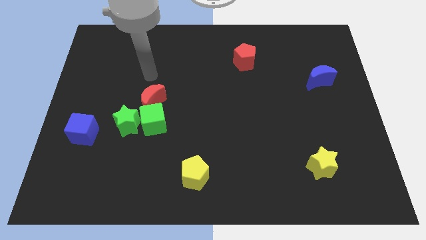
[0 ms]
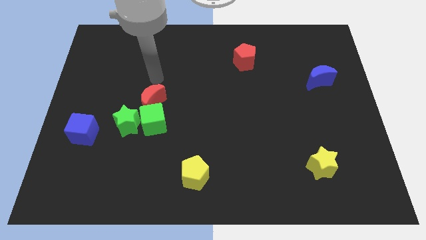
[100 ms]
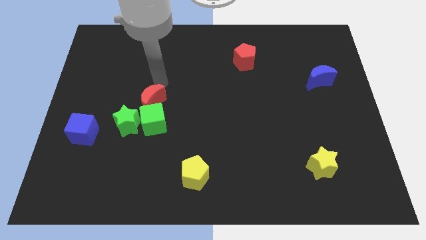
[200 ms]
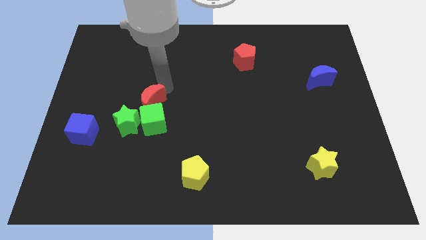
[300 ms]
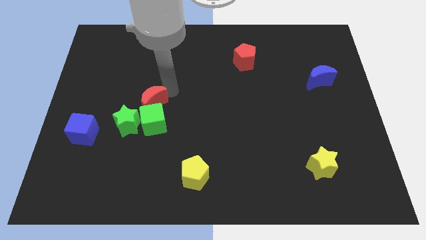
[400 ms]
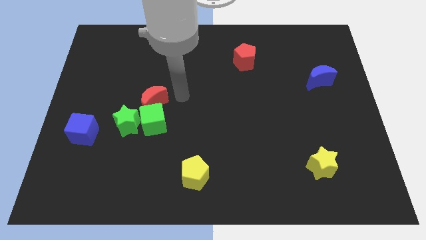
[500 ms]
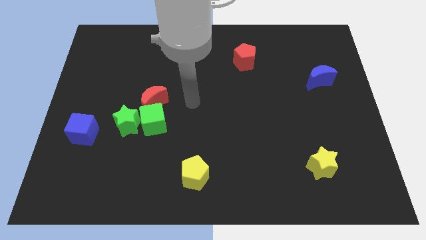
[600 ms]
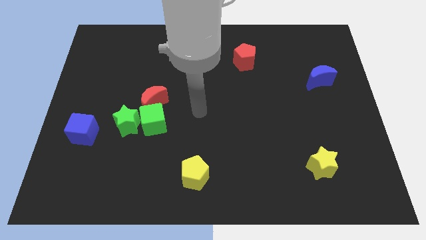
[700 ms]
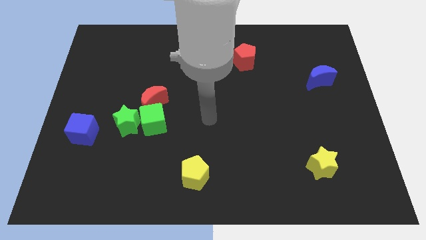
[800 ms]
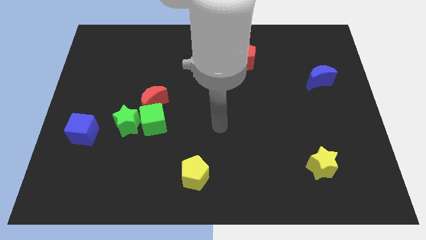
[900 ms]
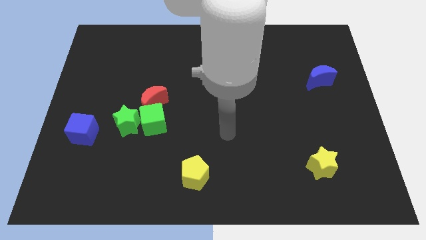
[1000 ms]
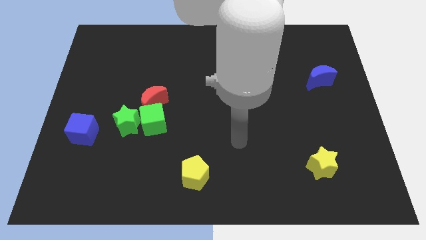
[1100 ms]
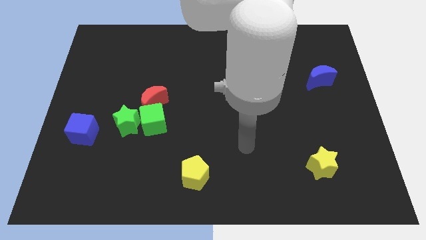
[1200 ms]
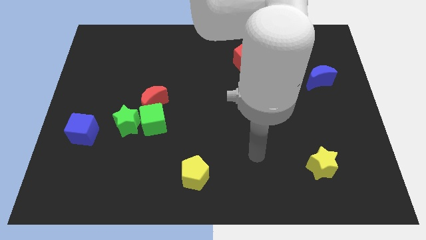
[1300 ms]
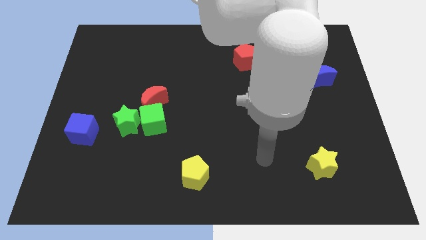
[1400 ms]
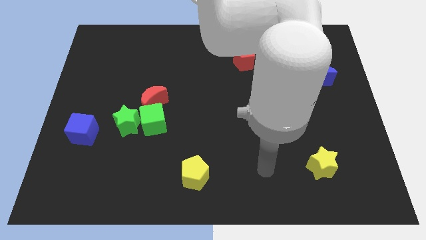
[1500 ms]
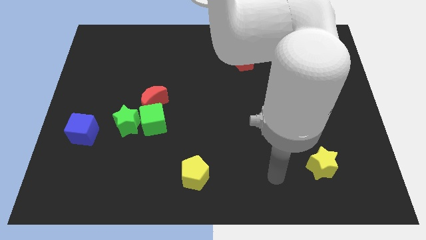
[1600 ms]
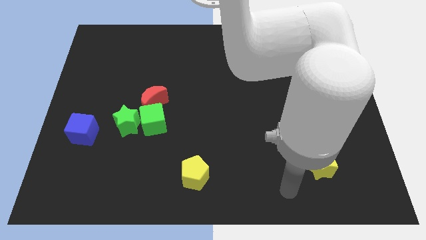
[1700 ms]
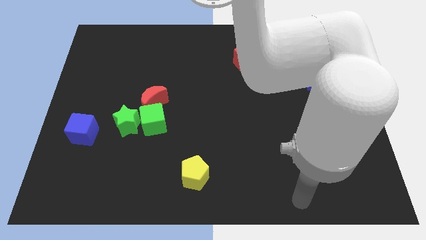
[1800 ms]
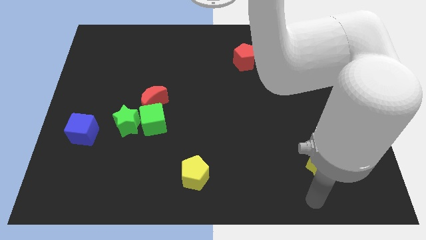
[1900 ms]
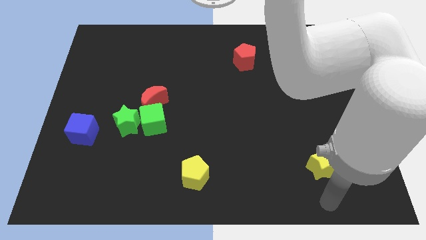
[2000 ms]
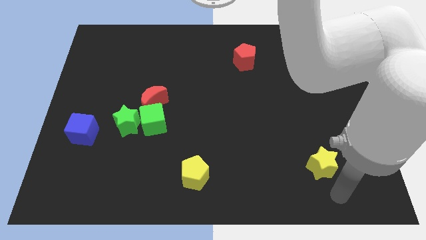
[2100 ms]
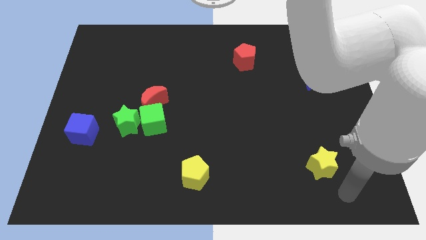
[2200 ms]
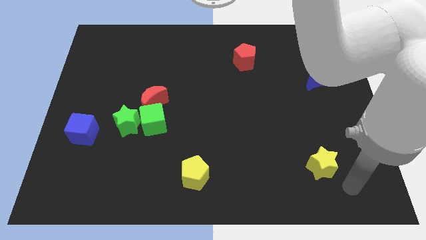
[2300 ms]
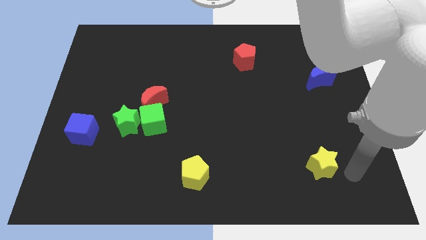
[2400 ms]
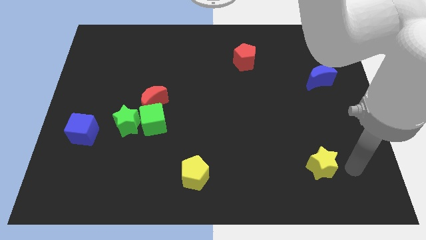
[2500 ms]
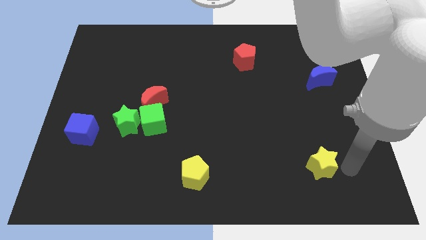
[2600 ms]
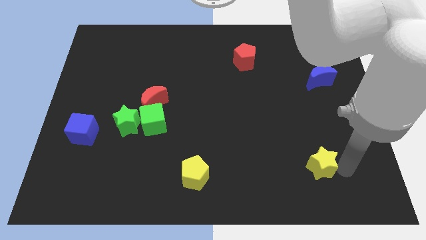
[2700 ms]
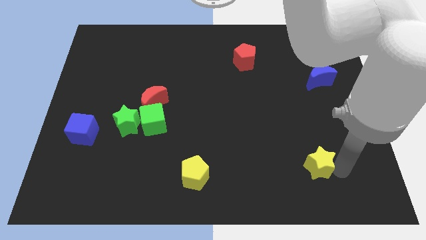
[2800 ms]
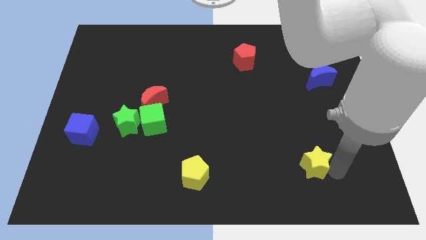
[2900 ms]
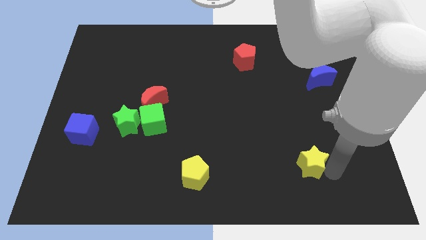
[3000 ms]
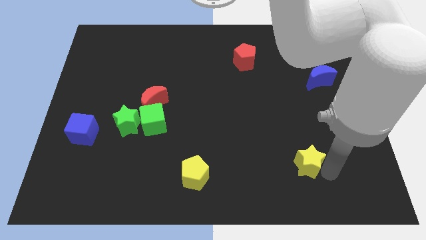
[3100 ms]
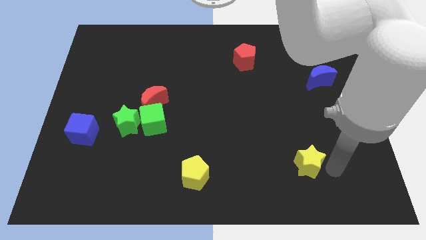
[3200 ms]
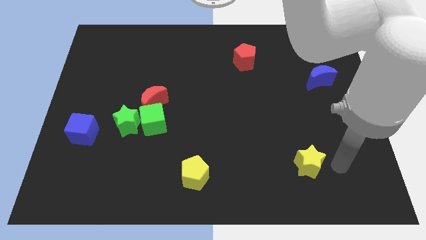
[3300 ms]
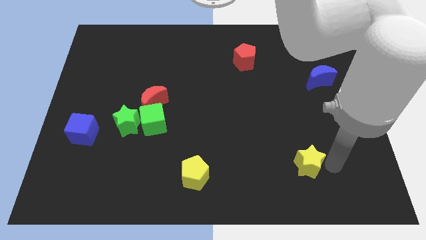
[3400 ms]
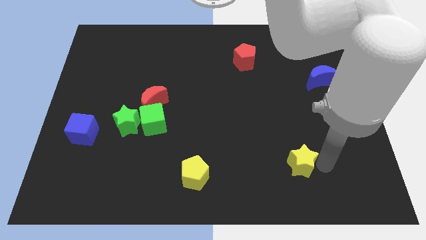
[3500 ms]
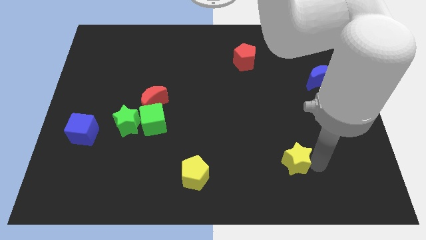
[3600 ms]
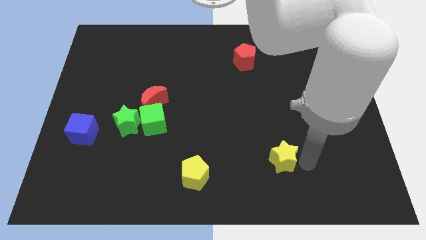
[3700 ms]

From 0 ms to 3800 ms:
move the yellow star a bit left

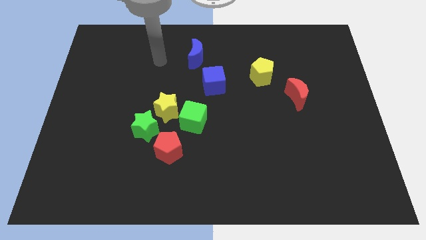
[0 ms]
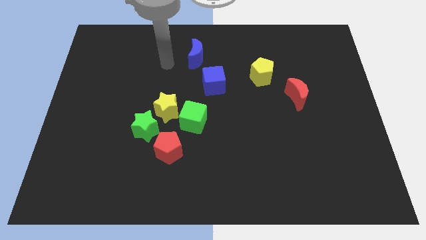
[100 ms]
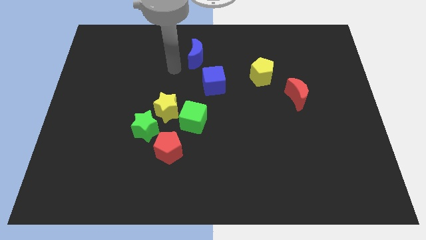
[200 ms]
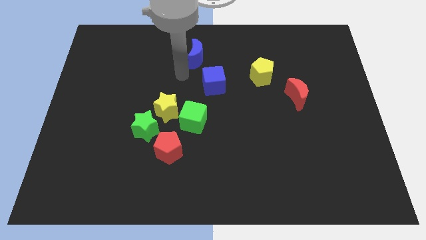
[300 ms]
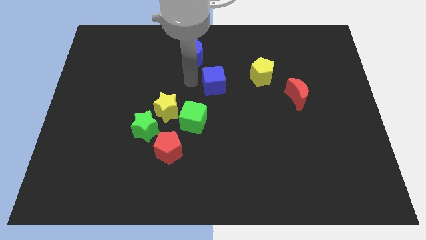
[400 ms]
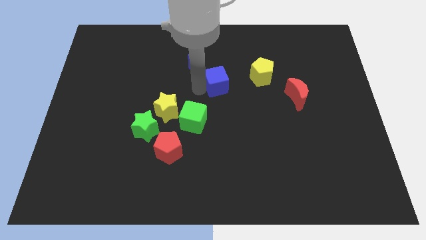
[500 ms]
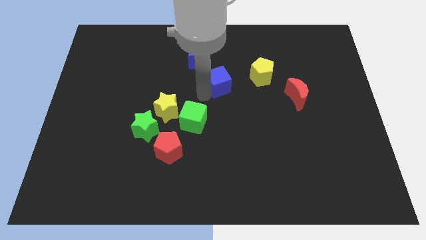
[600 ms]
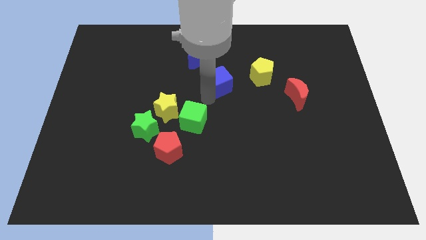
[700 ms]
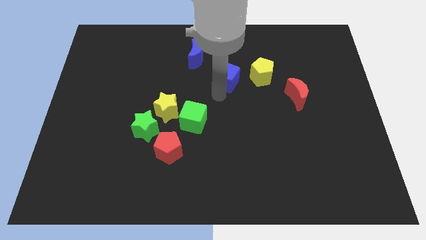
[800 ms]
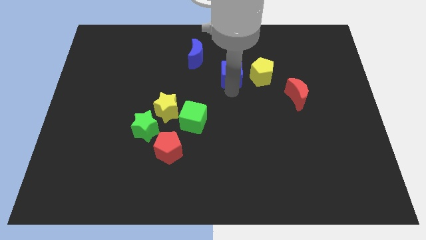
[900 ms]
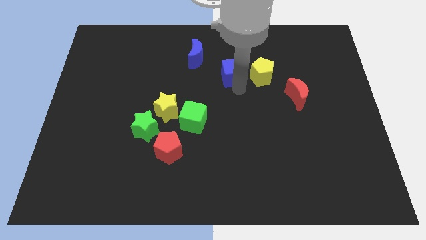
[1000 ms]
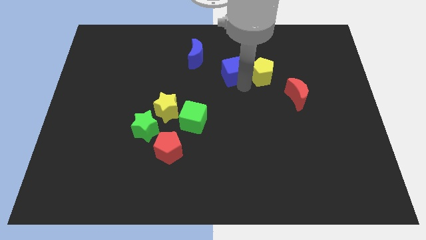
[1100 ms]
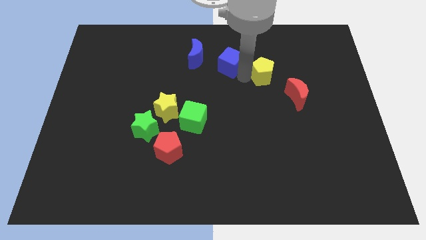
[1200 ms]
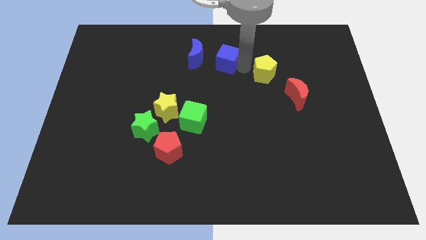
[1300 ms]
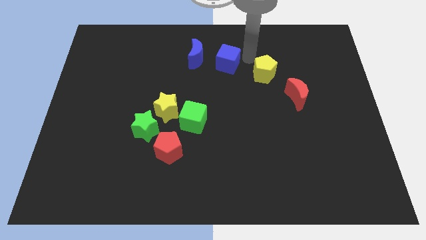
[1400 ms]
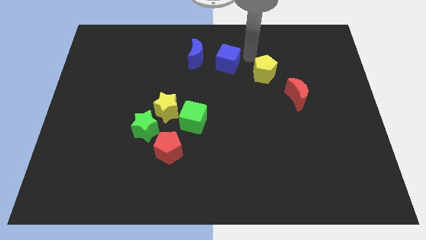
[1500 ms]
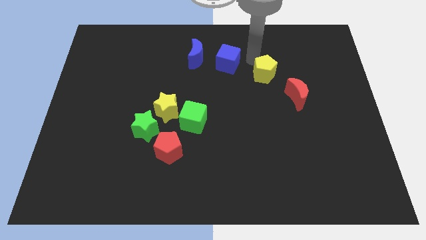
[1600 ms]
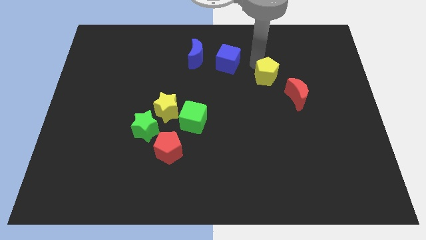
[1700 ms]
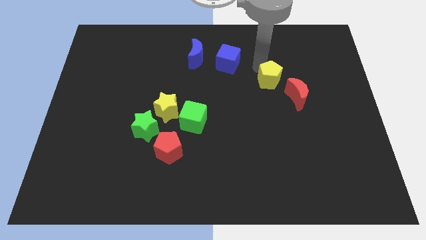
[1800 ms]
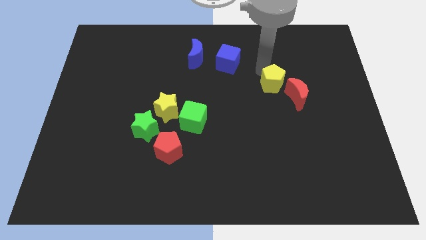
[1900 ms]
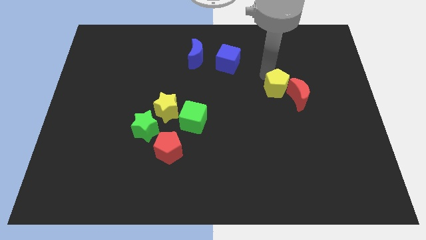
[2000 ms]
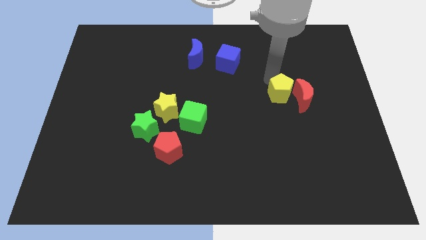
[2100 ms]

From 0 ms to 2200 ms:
slide the yellow pentagon a little bit downwards and to the right

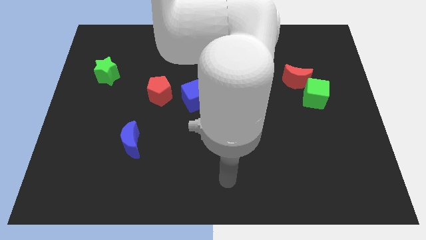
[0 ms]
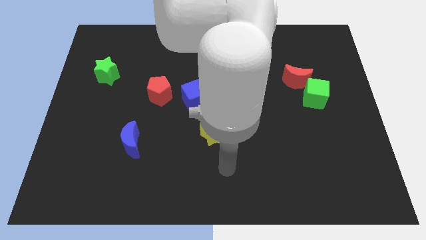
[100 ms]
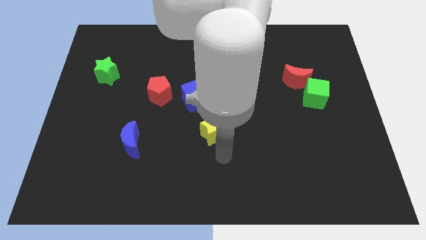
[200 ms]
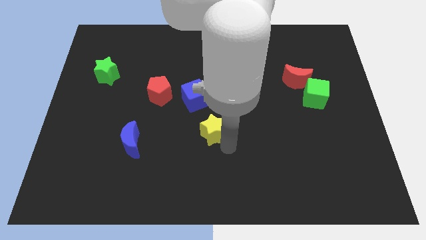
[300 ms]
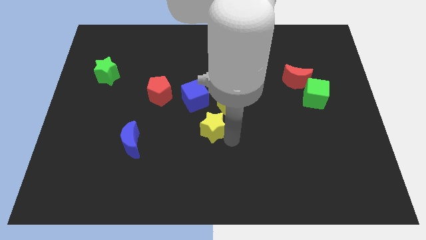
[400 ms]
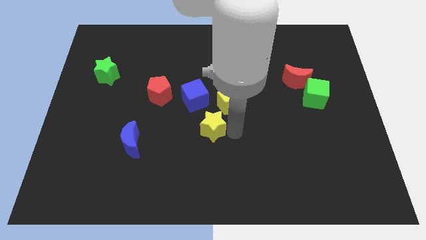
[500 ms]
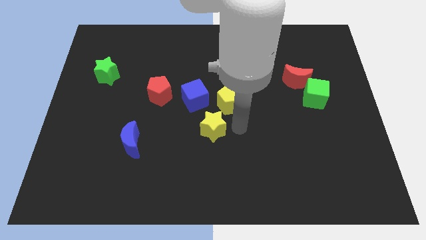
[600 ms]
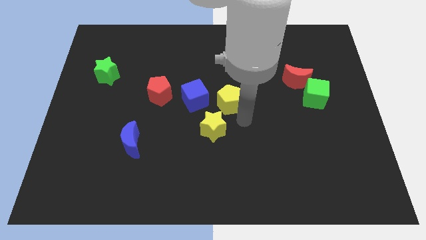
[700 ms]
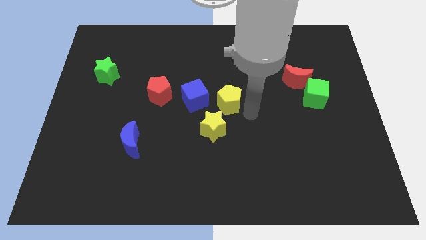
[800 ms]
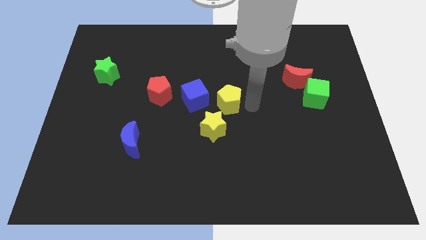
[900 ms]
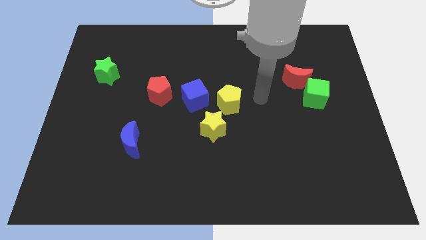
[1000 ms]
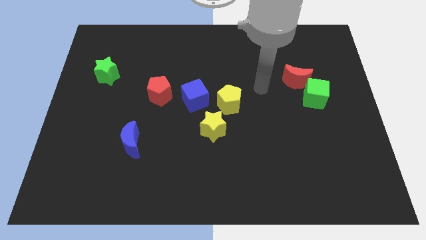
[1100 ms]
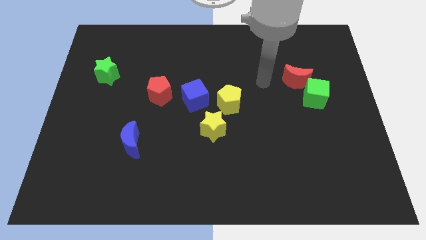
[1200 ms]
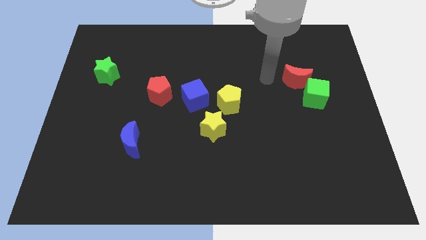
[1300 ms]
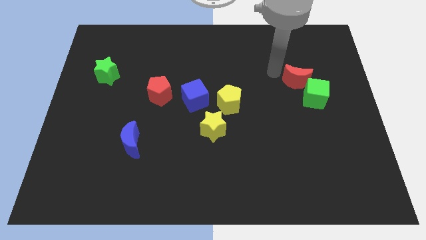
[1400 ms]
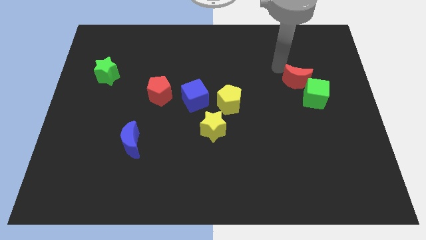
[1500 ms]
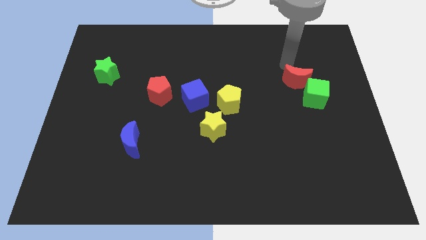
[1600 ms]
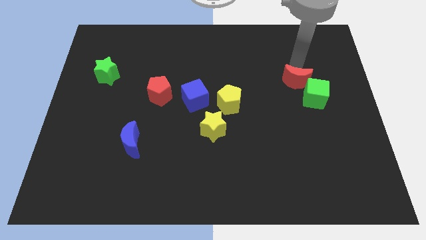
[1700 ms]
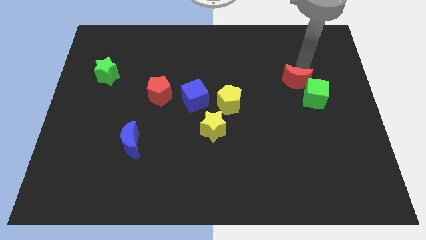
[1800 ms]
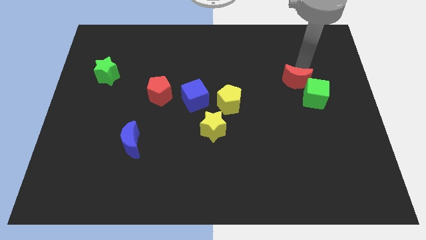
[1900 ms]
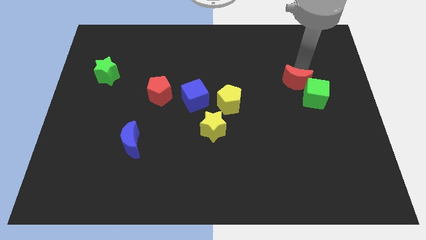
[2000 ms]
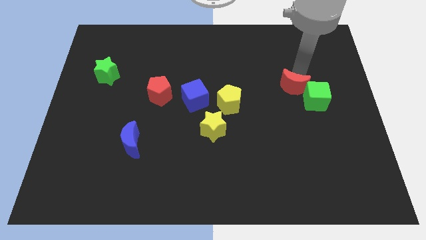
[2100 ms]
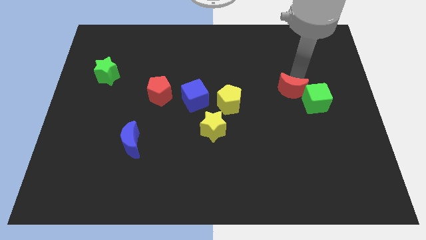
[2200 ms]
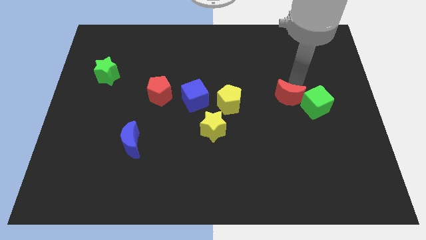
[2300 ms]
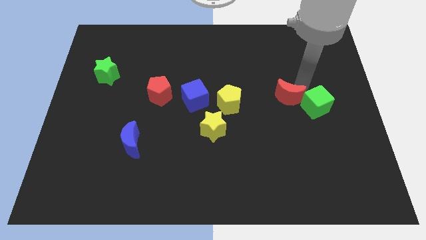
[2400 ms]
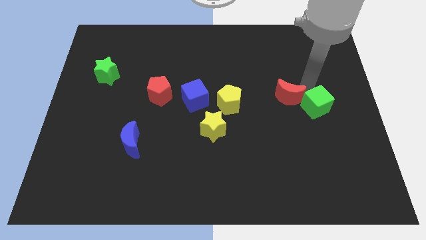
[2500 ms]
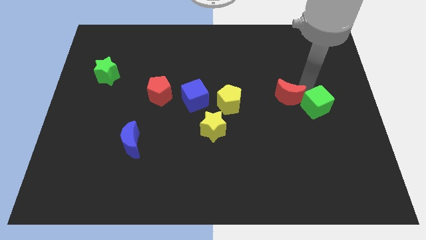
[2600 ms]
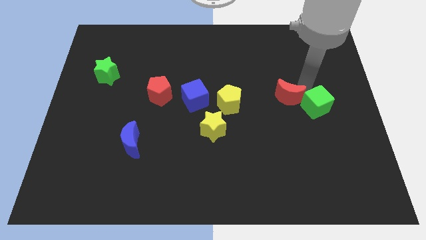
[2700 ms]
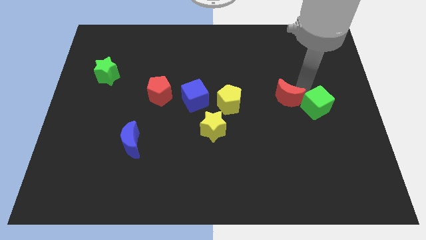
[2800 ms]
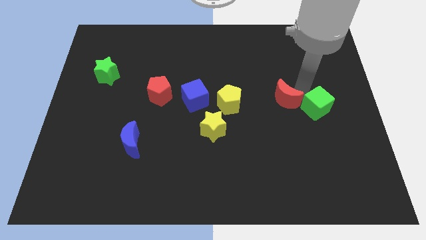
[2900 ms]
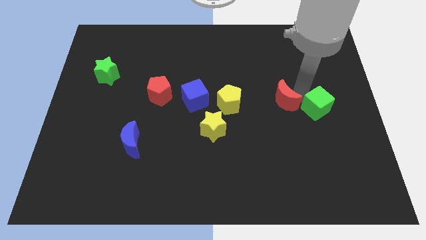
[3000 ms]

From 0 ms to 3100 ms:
slightly slide the red moon down and to the left diagonally
